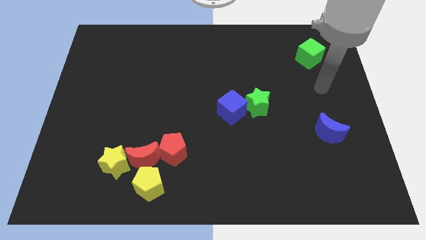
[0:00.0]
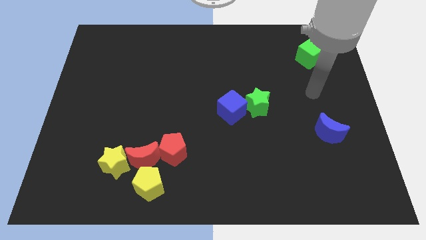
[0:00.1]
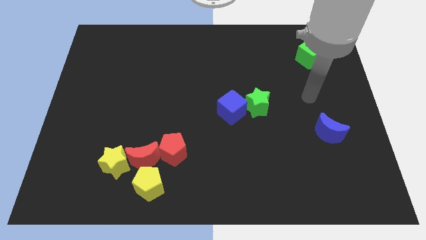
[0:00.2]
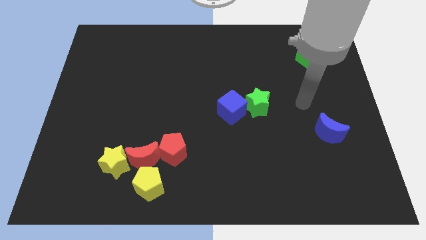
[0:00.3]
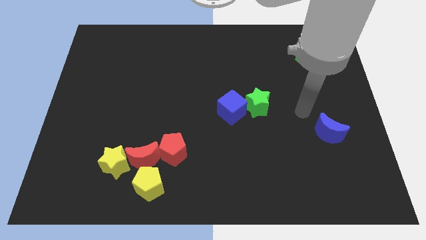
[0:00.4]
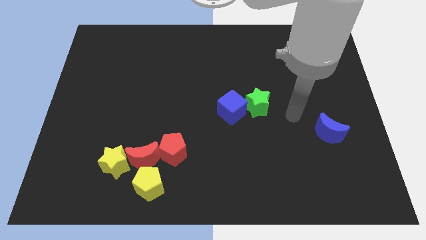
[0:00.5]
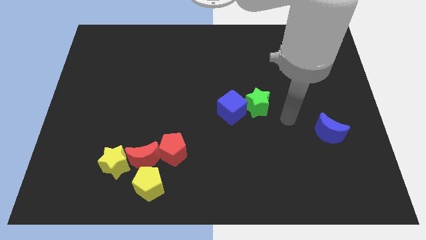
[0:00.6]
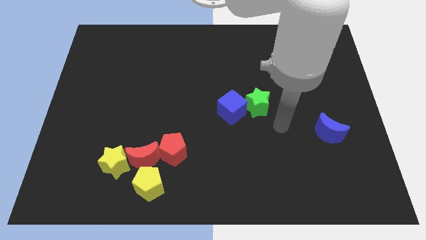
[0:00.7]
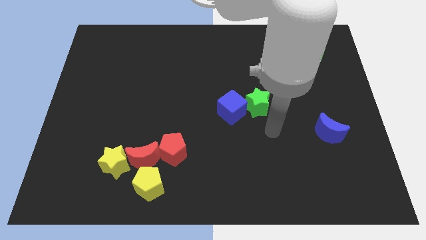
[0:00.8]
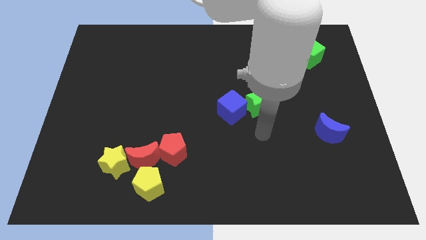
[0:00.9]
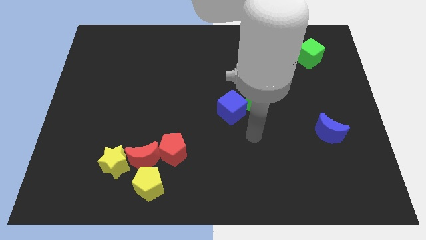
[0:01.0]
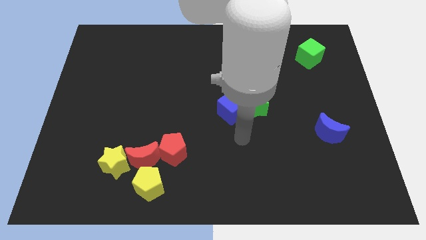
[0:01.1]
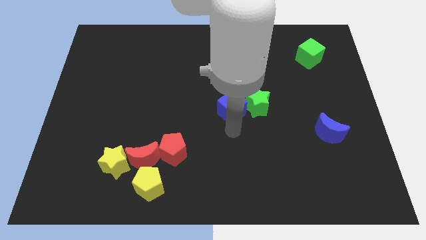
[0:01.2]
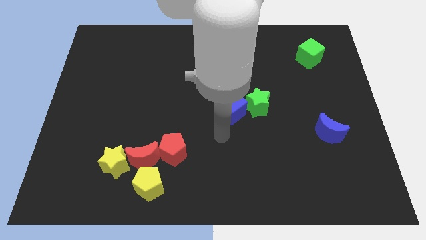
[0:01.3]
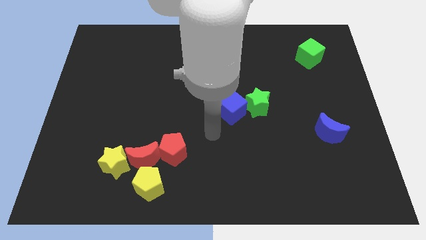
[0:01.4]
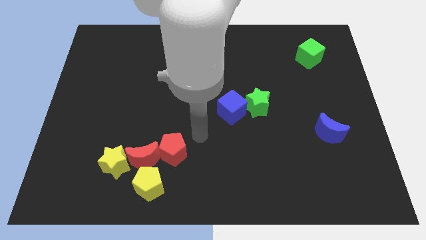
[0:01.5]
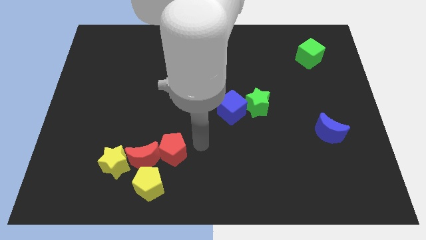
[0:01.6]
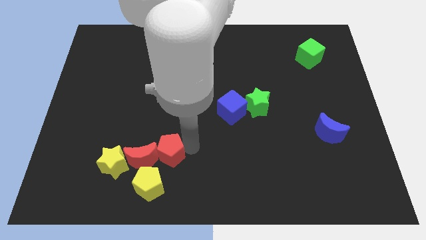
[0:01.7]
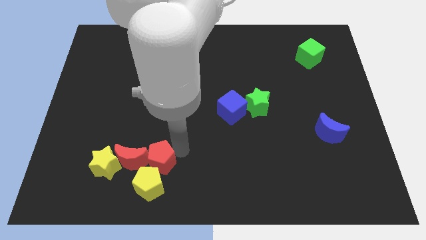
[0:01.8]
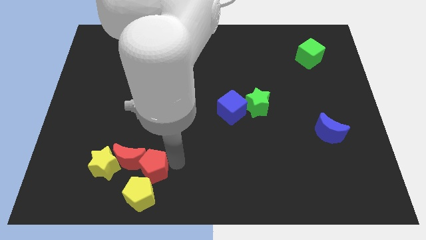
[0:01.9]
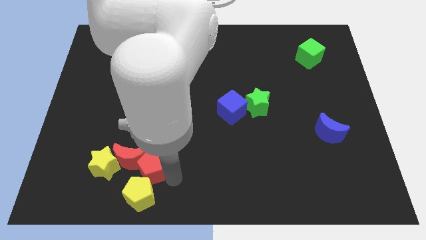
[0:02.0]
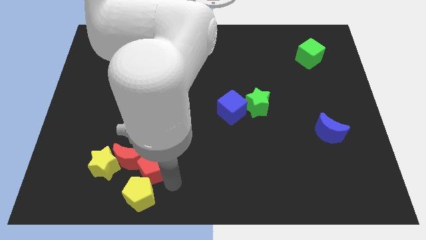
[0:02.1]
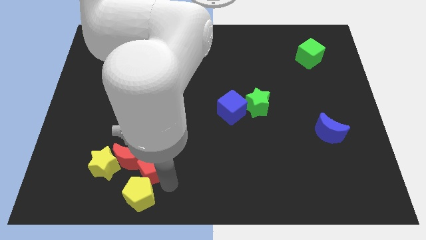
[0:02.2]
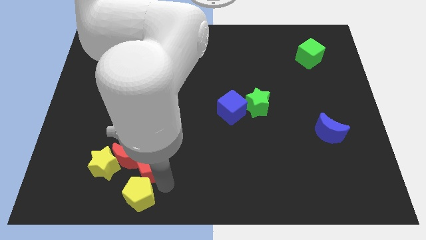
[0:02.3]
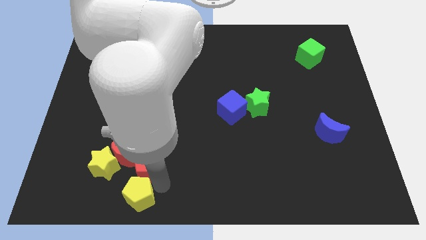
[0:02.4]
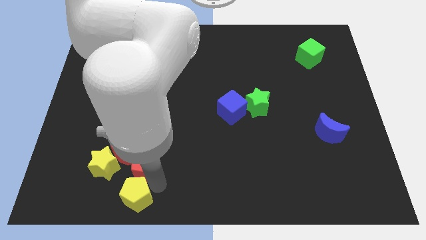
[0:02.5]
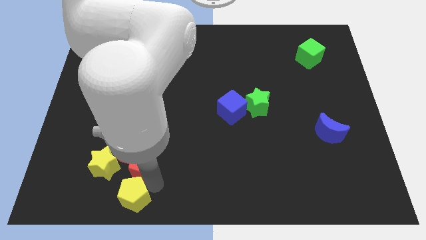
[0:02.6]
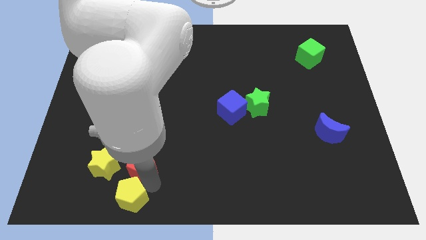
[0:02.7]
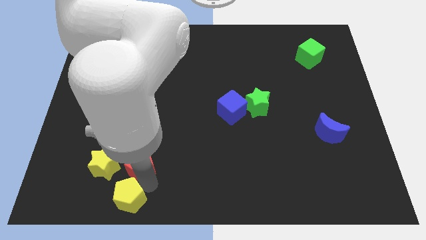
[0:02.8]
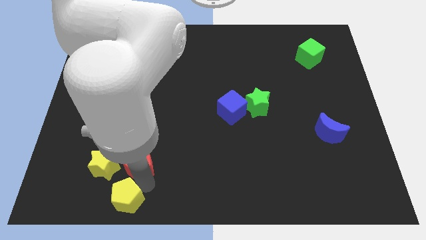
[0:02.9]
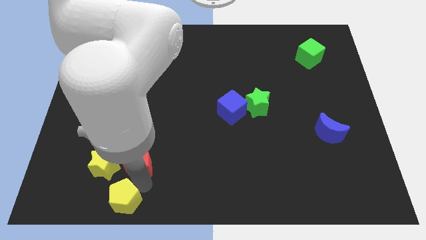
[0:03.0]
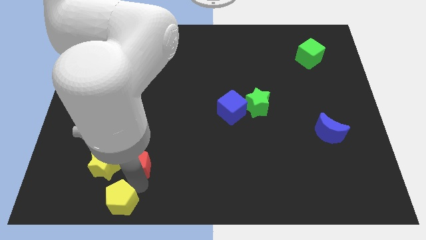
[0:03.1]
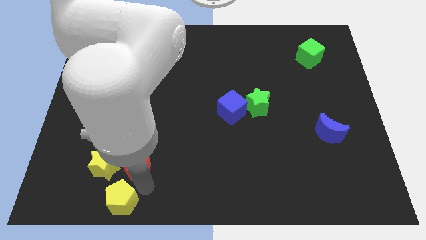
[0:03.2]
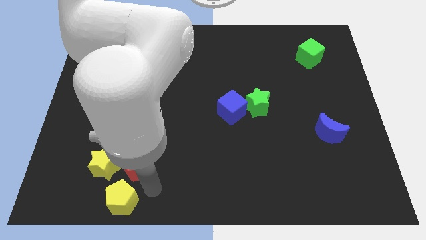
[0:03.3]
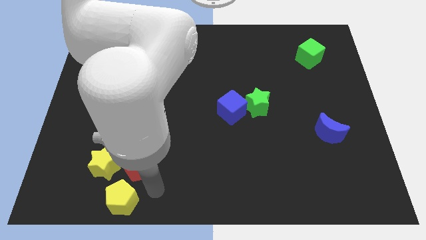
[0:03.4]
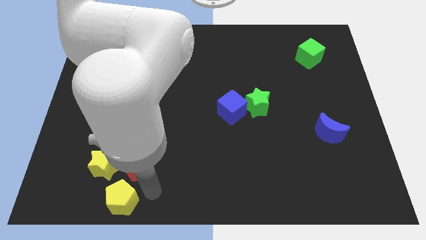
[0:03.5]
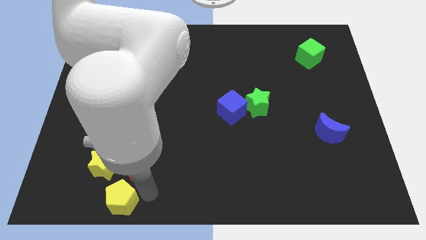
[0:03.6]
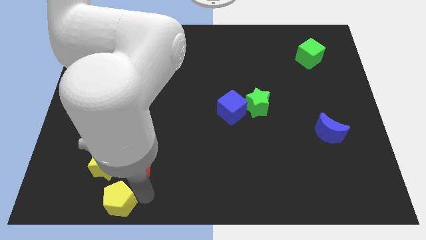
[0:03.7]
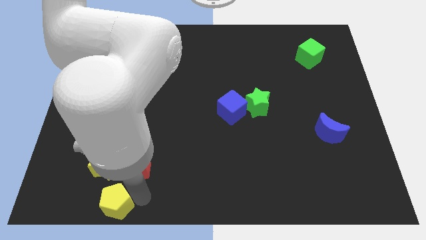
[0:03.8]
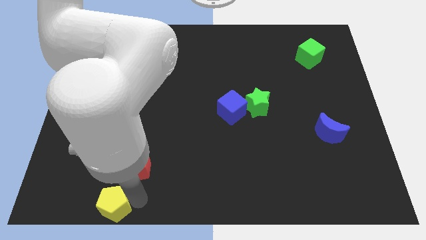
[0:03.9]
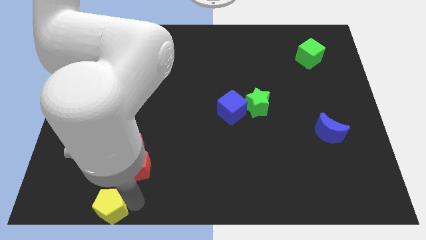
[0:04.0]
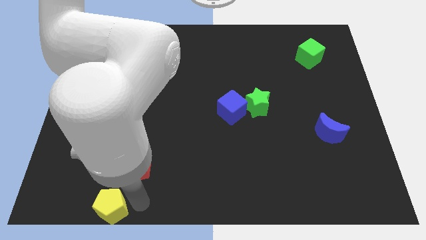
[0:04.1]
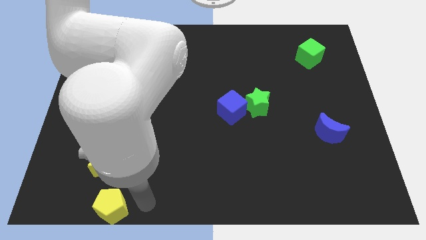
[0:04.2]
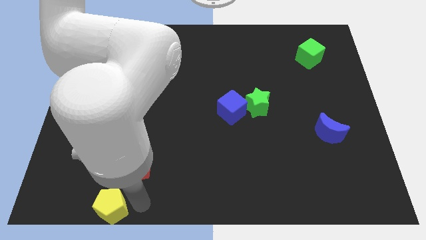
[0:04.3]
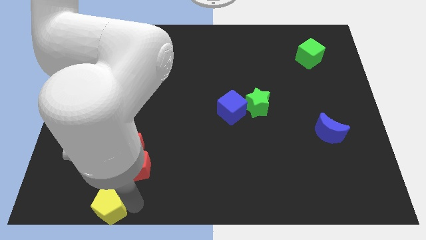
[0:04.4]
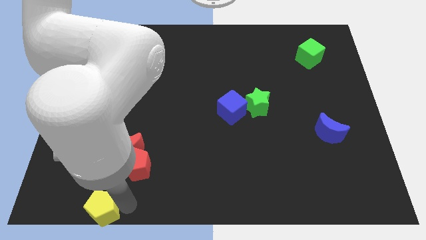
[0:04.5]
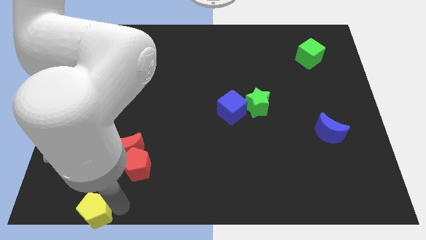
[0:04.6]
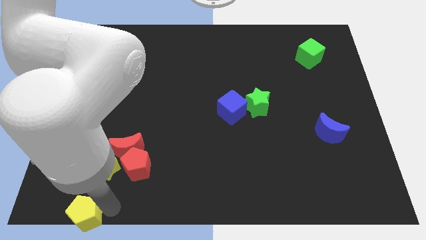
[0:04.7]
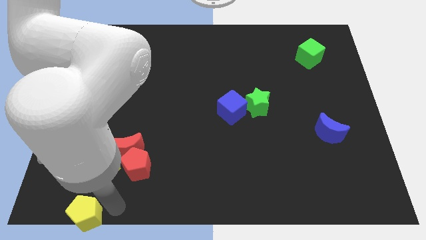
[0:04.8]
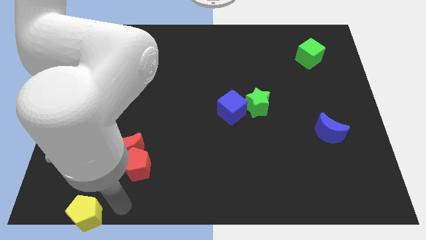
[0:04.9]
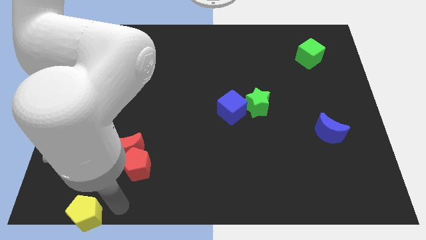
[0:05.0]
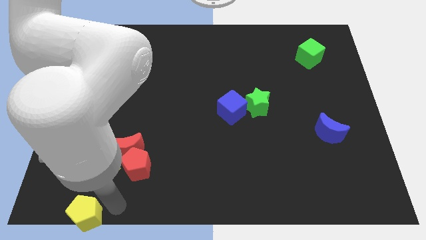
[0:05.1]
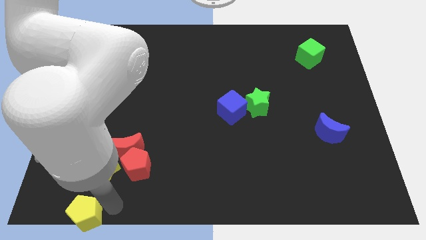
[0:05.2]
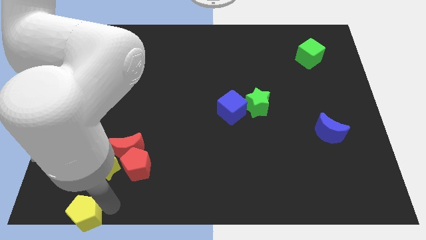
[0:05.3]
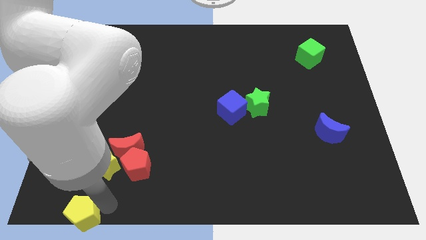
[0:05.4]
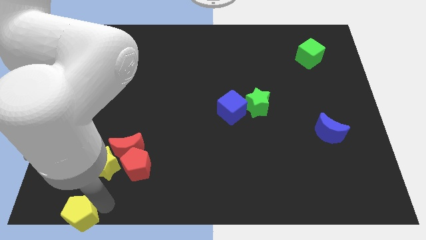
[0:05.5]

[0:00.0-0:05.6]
move the yellow pentagon to the lower left corner

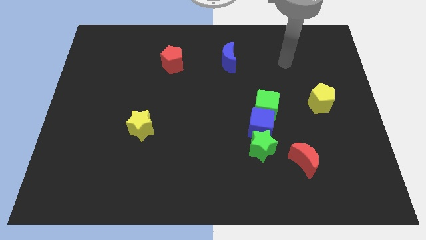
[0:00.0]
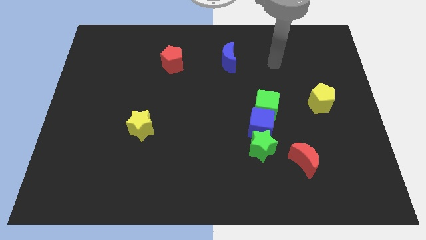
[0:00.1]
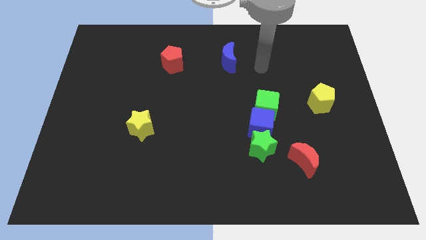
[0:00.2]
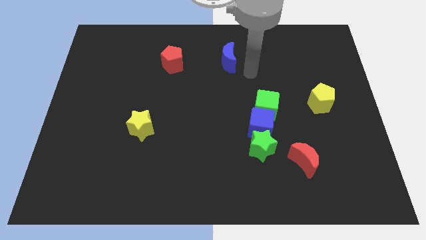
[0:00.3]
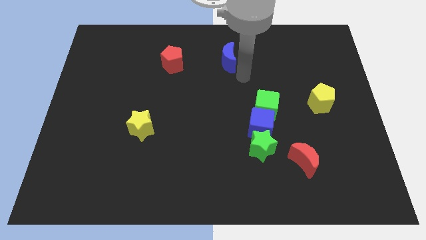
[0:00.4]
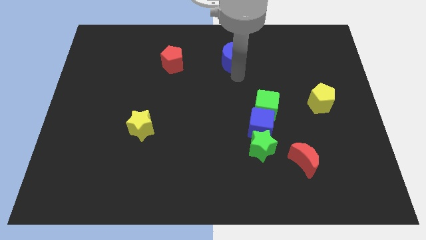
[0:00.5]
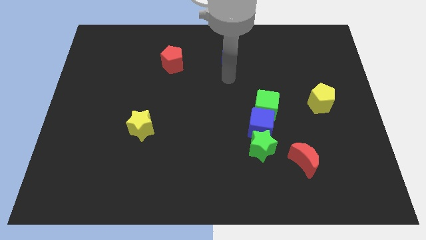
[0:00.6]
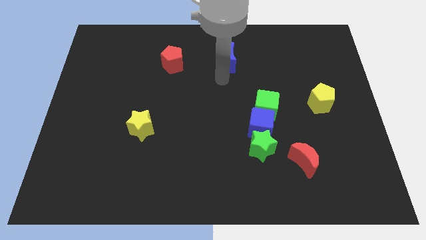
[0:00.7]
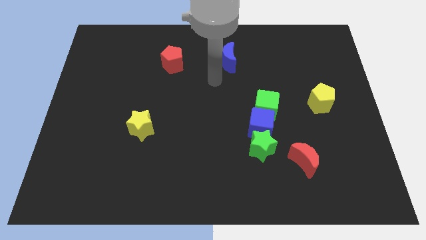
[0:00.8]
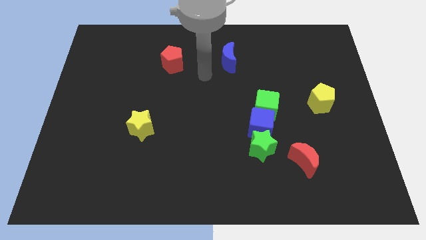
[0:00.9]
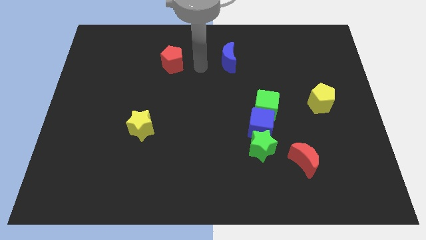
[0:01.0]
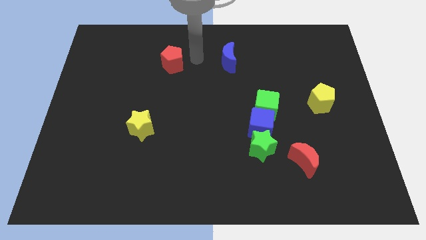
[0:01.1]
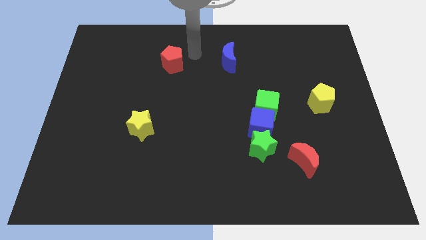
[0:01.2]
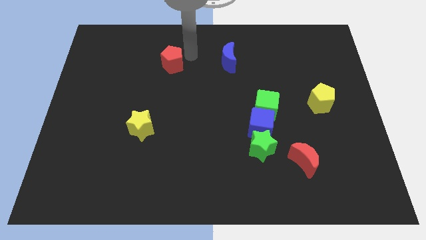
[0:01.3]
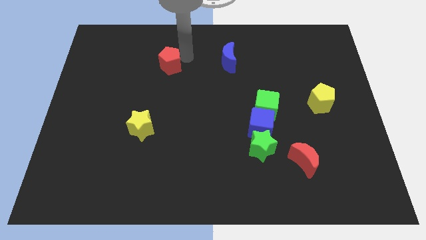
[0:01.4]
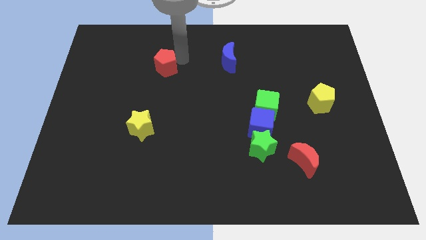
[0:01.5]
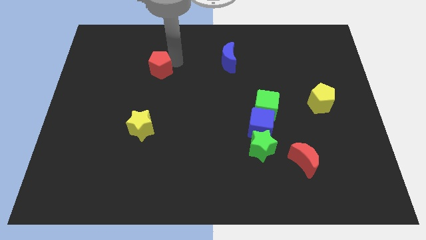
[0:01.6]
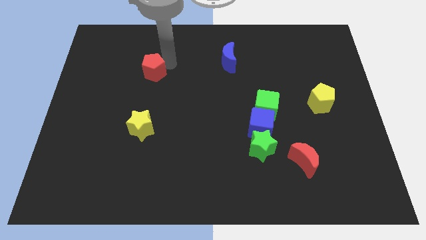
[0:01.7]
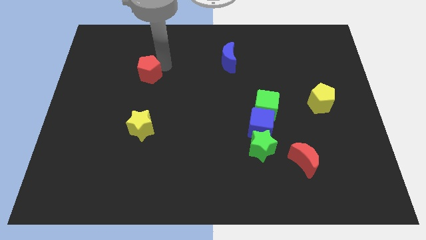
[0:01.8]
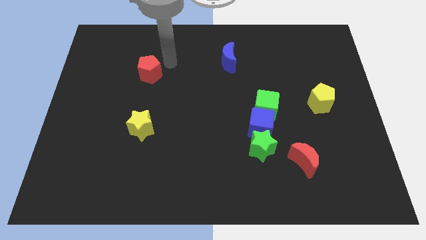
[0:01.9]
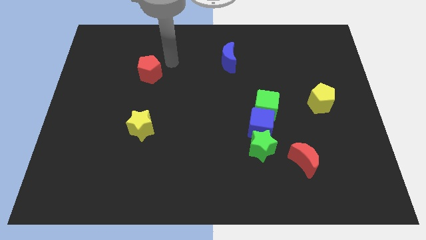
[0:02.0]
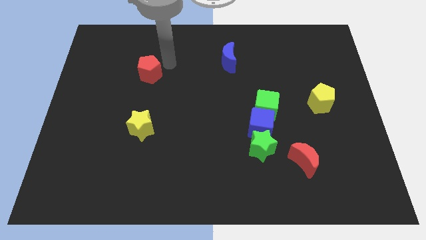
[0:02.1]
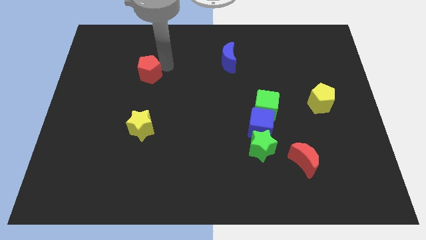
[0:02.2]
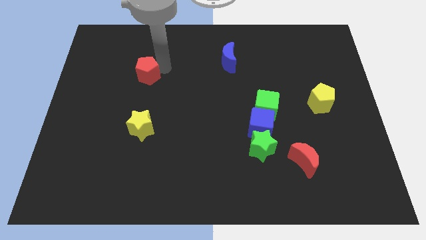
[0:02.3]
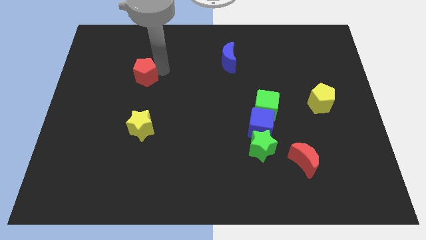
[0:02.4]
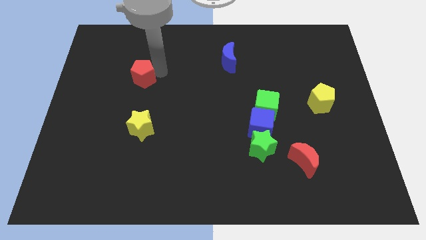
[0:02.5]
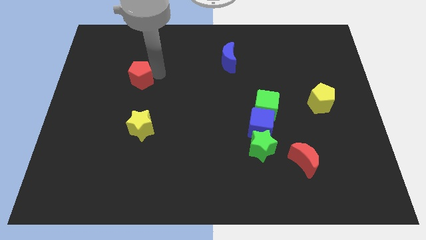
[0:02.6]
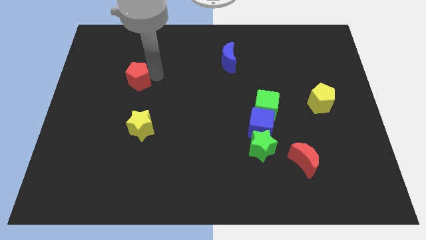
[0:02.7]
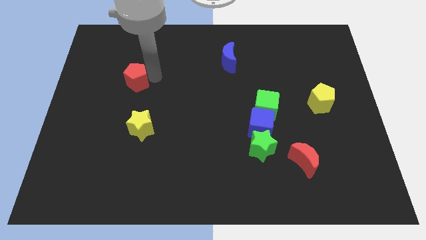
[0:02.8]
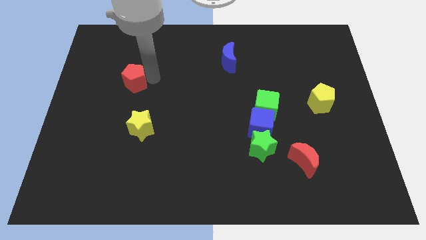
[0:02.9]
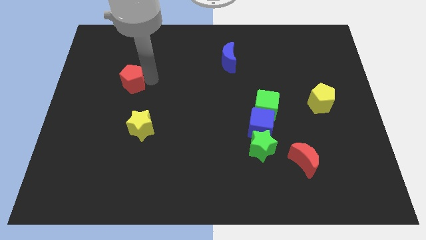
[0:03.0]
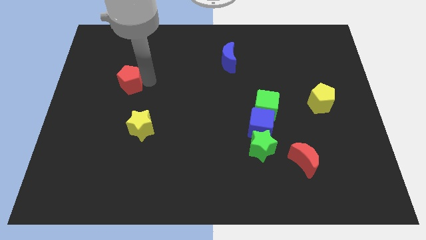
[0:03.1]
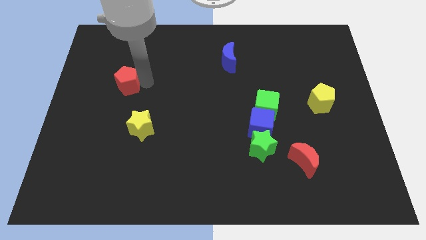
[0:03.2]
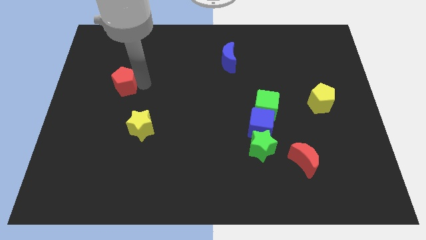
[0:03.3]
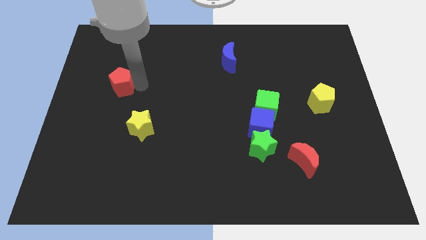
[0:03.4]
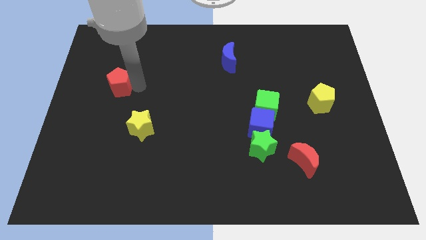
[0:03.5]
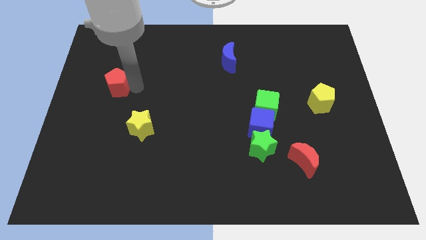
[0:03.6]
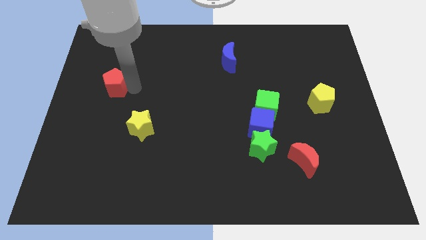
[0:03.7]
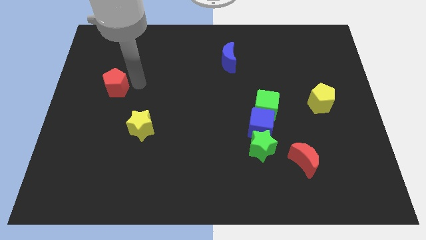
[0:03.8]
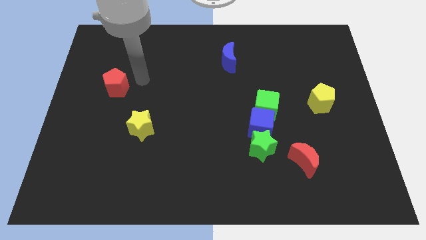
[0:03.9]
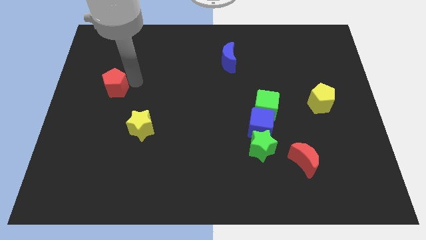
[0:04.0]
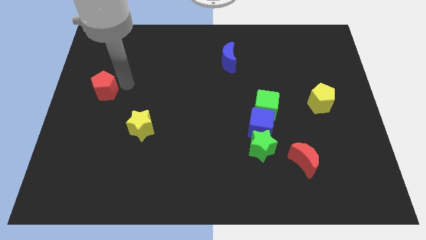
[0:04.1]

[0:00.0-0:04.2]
put the red pentagon to the center left
